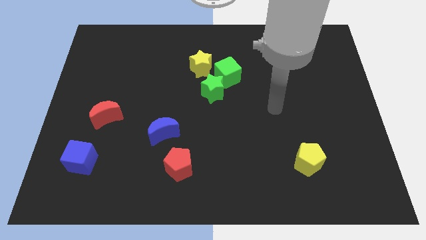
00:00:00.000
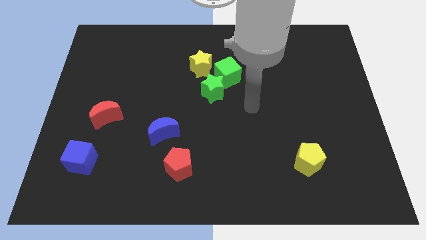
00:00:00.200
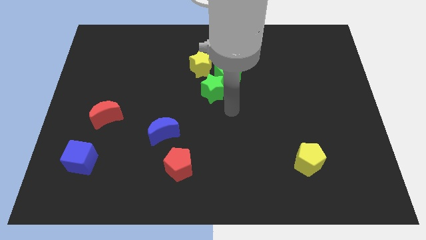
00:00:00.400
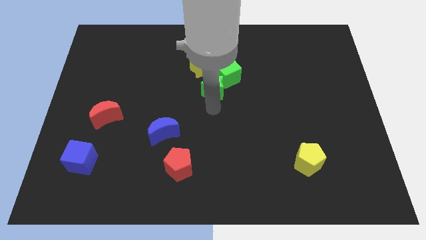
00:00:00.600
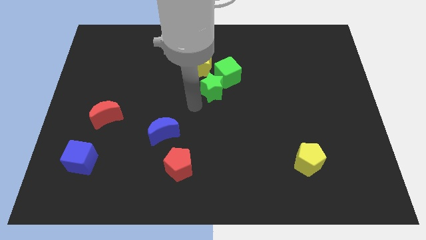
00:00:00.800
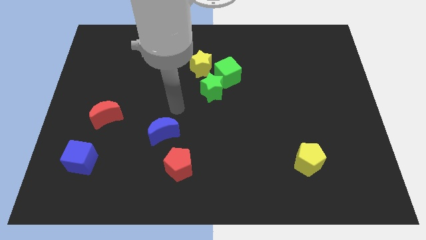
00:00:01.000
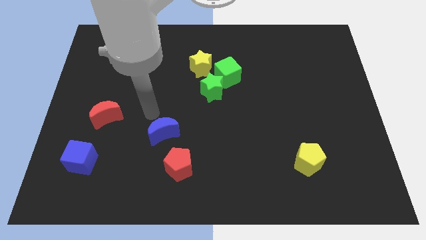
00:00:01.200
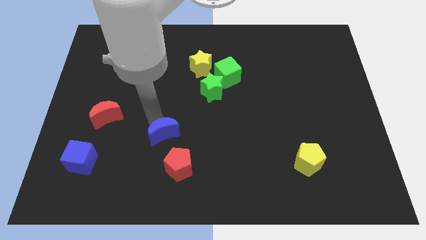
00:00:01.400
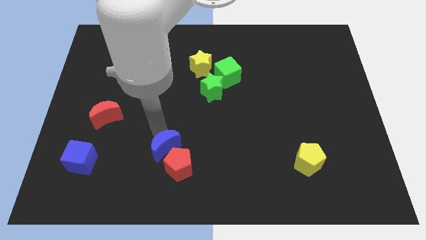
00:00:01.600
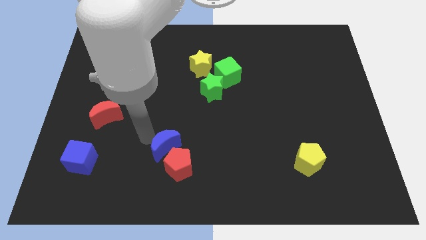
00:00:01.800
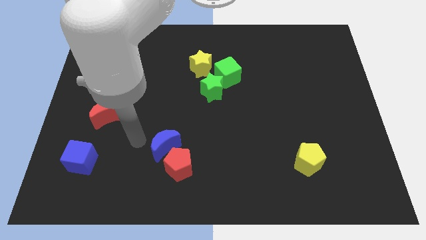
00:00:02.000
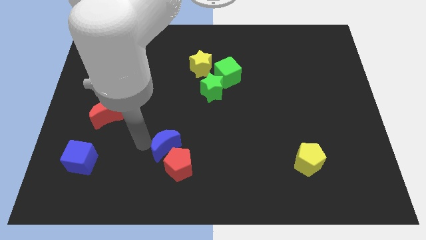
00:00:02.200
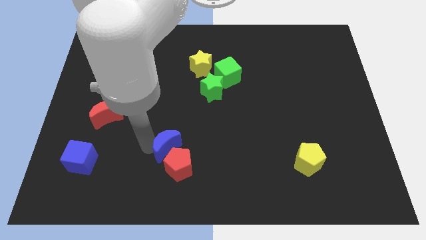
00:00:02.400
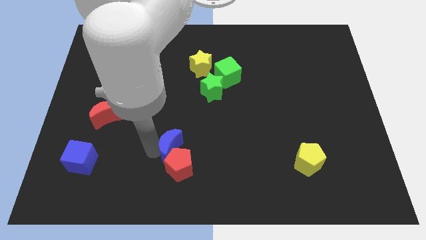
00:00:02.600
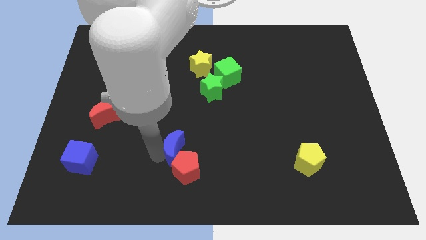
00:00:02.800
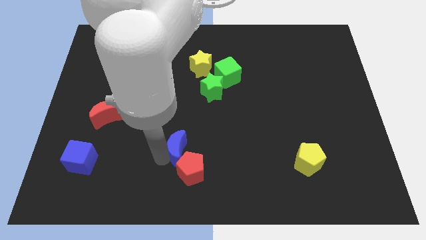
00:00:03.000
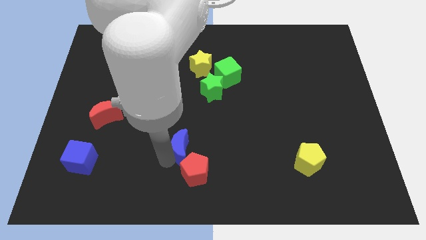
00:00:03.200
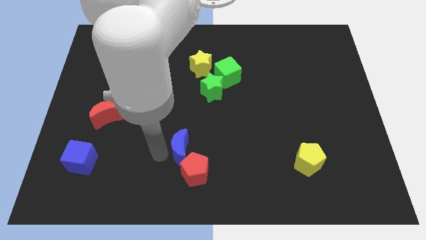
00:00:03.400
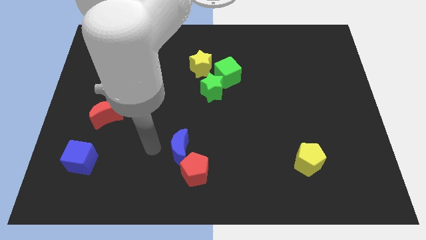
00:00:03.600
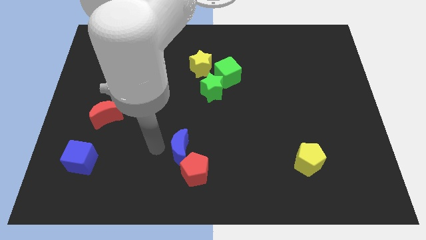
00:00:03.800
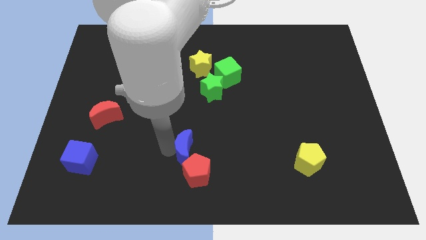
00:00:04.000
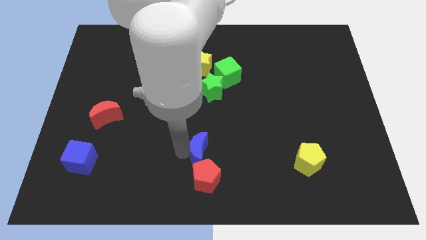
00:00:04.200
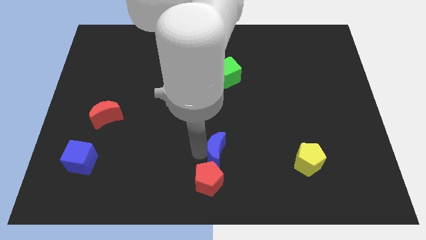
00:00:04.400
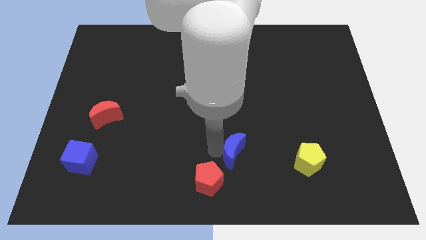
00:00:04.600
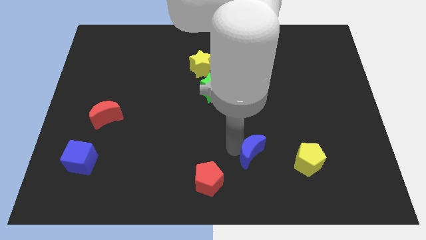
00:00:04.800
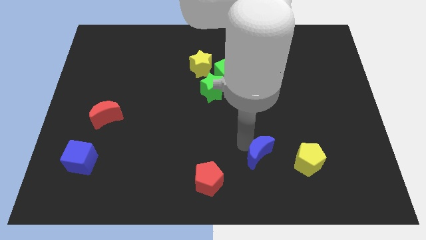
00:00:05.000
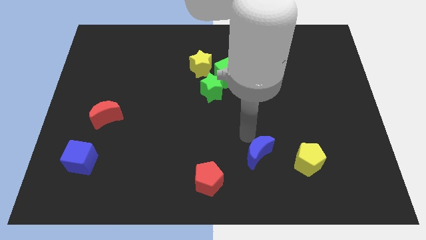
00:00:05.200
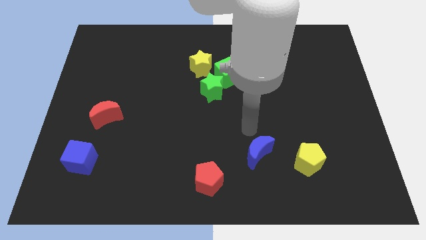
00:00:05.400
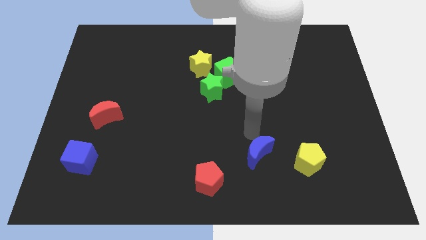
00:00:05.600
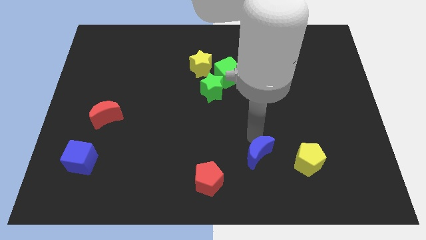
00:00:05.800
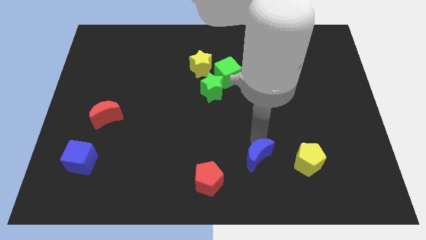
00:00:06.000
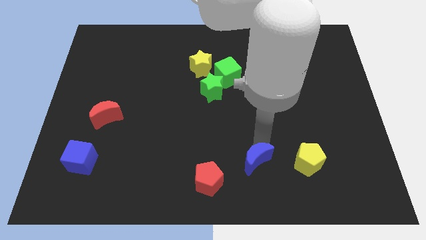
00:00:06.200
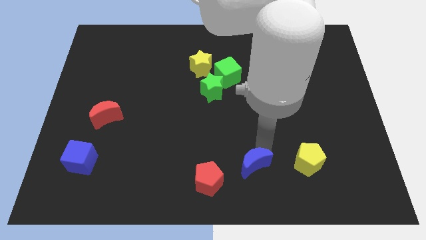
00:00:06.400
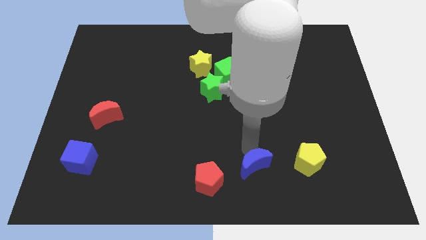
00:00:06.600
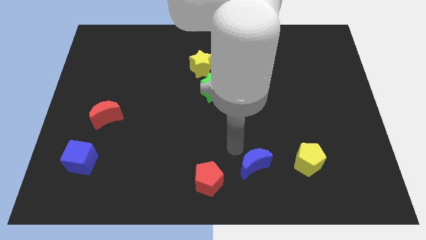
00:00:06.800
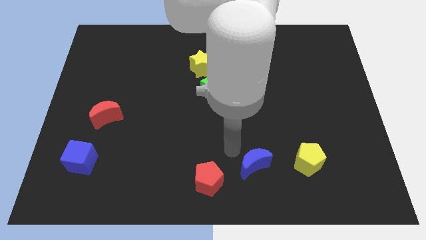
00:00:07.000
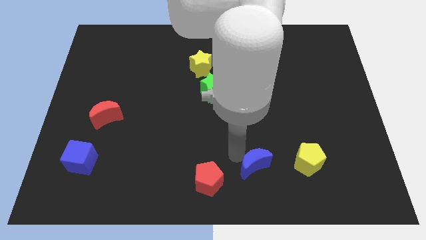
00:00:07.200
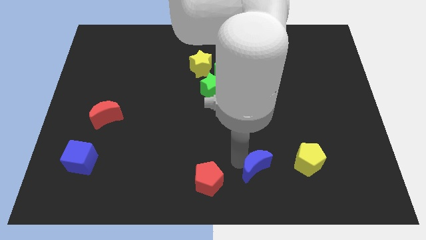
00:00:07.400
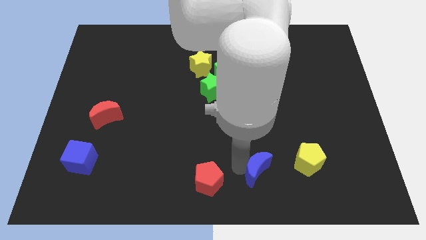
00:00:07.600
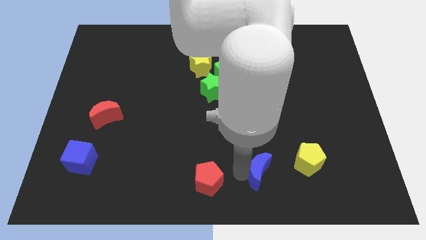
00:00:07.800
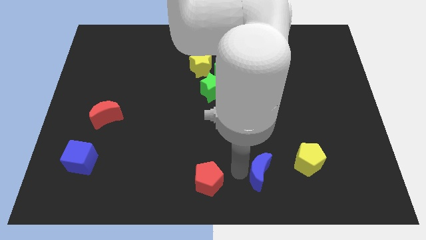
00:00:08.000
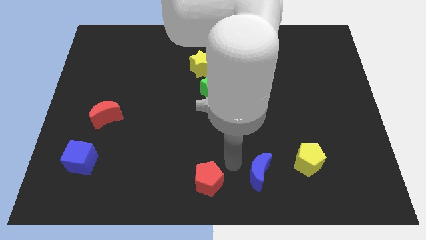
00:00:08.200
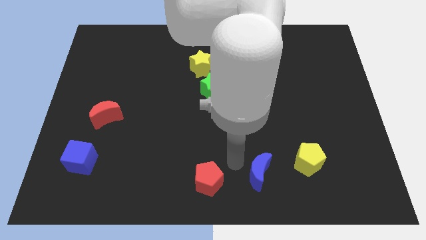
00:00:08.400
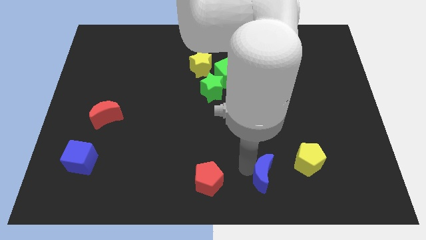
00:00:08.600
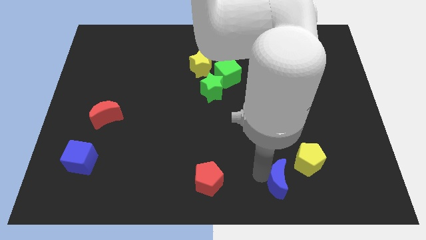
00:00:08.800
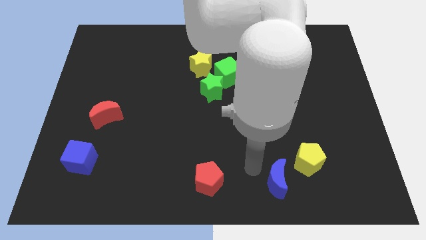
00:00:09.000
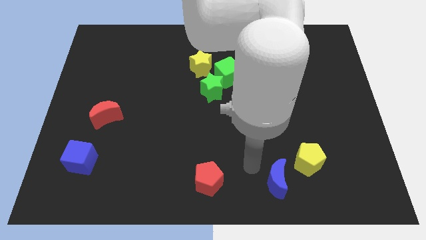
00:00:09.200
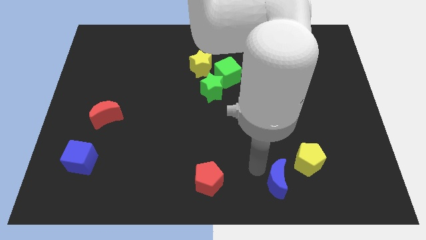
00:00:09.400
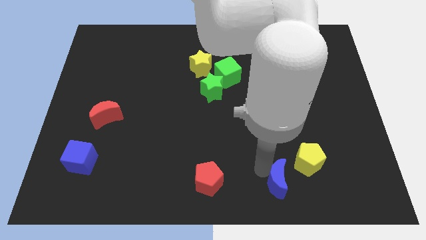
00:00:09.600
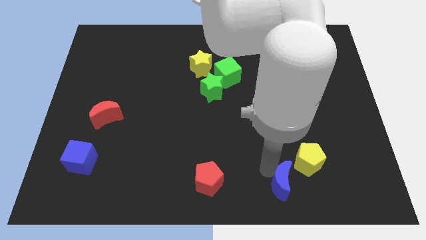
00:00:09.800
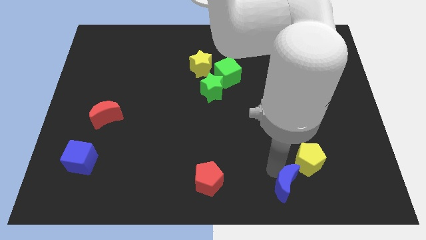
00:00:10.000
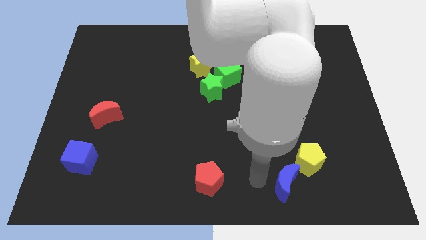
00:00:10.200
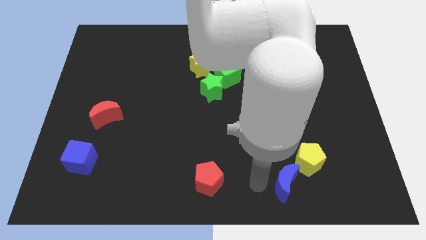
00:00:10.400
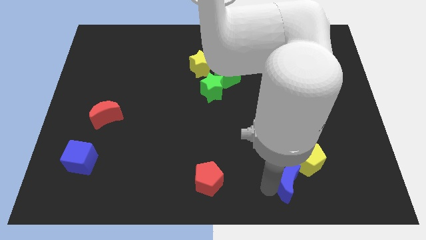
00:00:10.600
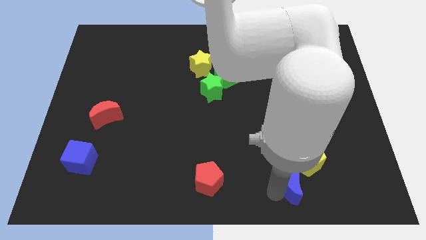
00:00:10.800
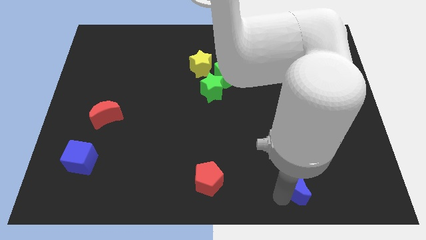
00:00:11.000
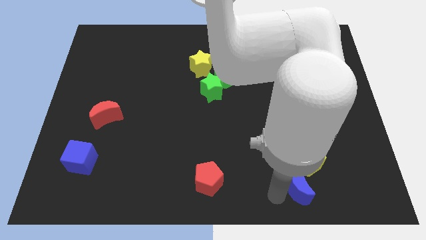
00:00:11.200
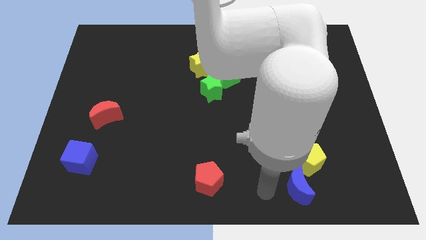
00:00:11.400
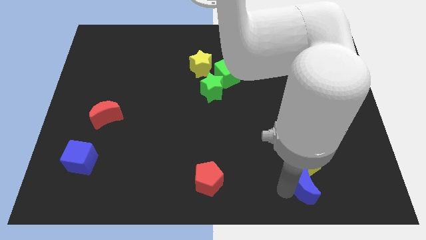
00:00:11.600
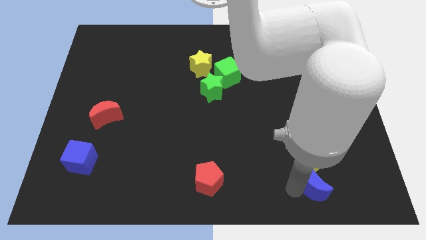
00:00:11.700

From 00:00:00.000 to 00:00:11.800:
push the blue moon diagonally down and to the right of the yellow pentagon

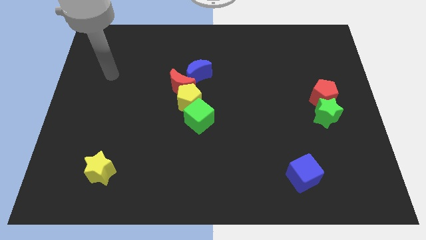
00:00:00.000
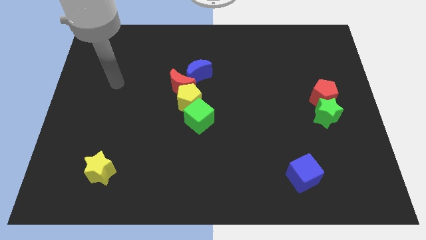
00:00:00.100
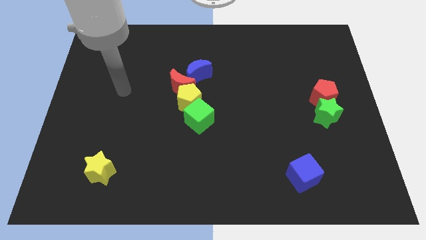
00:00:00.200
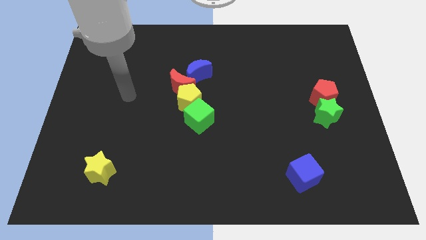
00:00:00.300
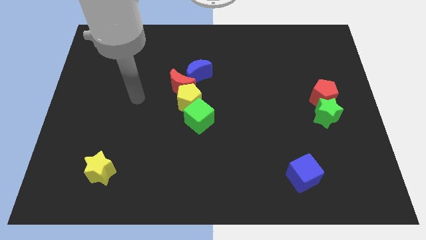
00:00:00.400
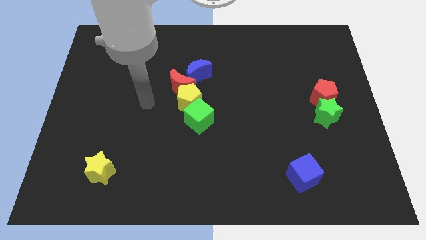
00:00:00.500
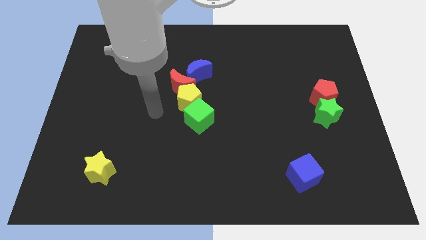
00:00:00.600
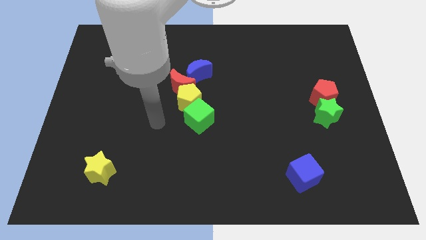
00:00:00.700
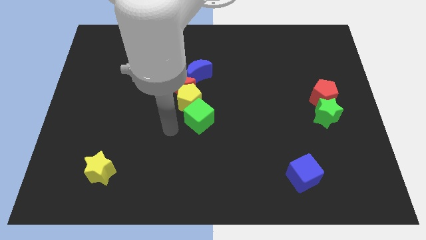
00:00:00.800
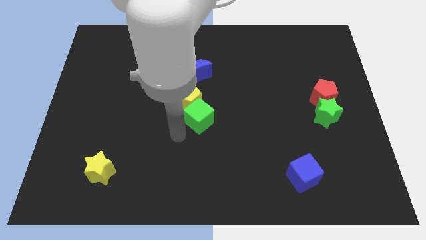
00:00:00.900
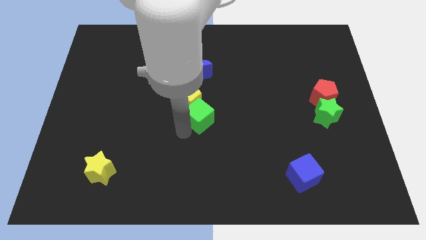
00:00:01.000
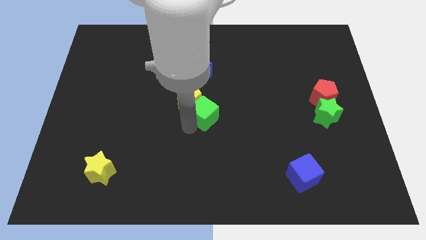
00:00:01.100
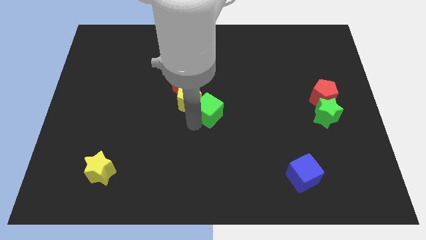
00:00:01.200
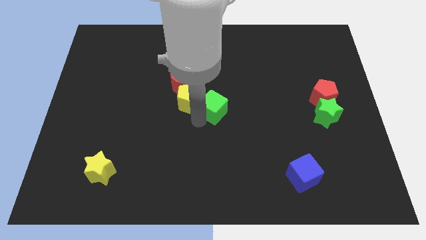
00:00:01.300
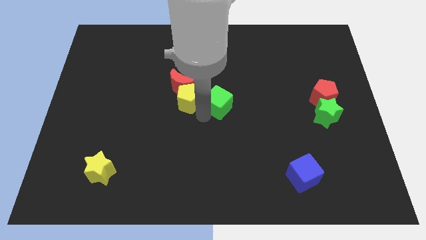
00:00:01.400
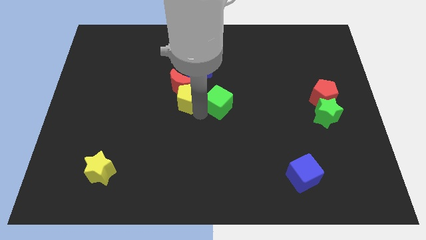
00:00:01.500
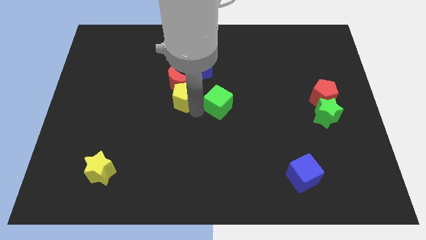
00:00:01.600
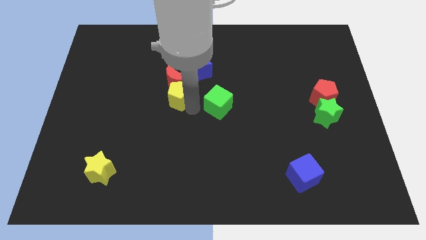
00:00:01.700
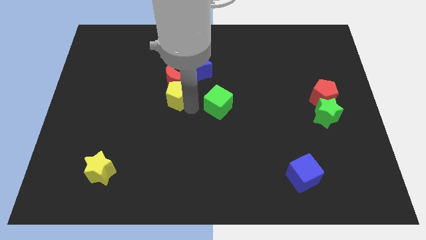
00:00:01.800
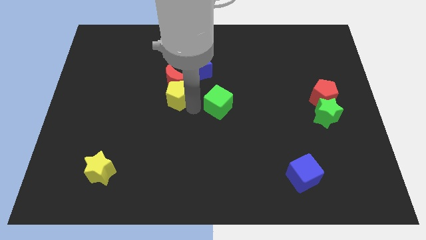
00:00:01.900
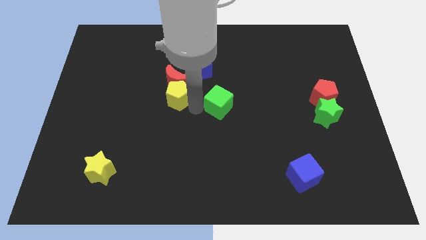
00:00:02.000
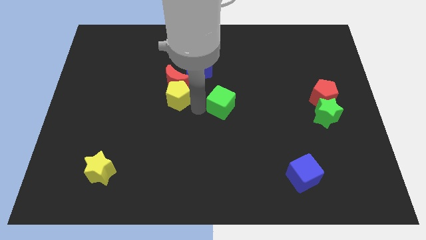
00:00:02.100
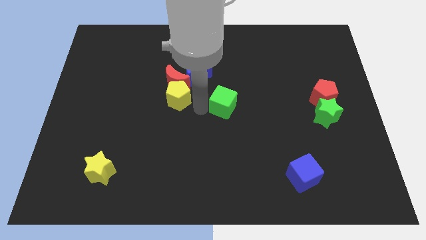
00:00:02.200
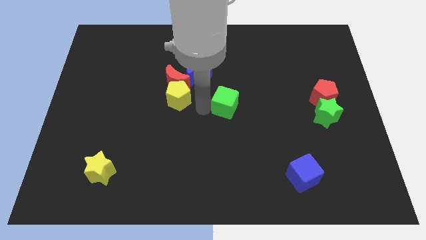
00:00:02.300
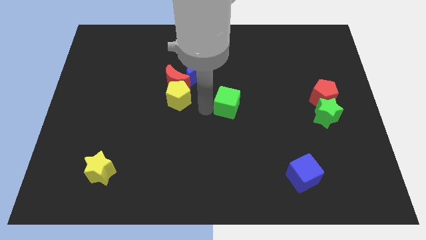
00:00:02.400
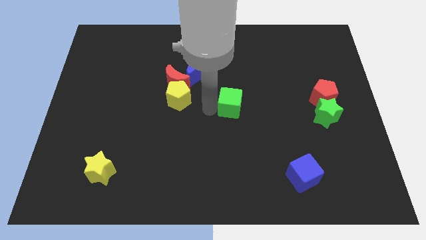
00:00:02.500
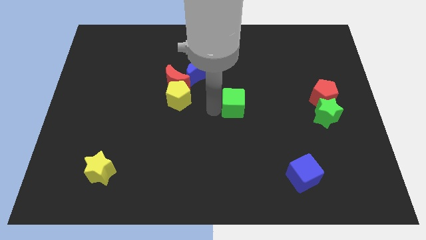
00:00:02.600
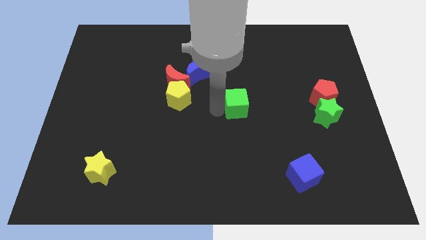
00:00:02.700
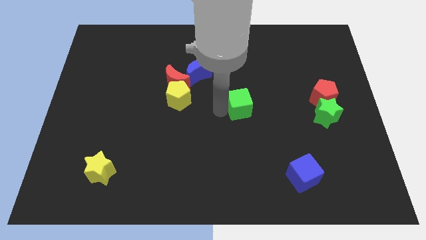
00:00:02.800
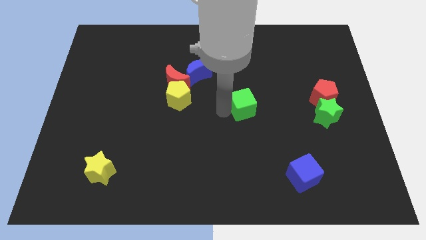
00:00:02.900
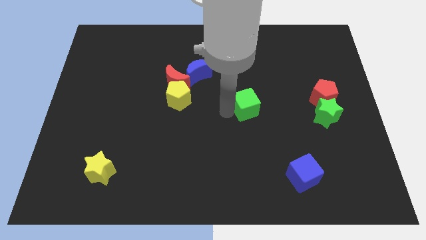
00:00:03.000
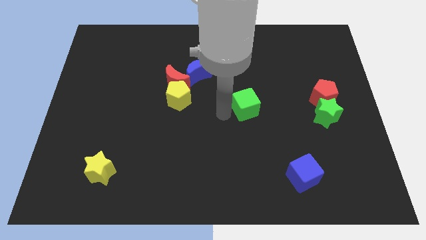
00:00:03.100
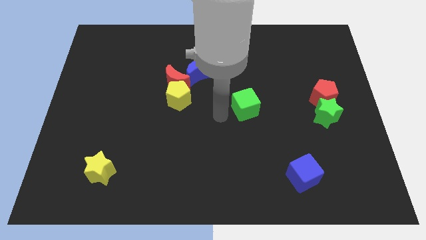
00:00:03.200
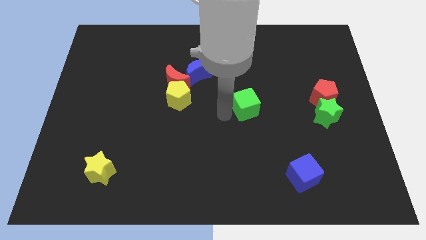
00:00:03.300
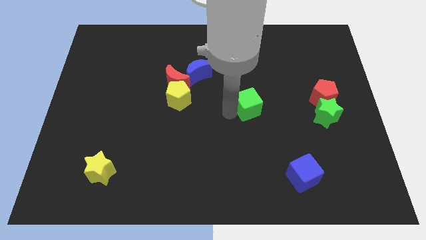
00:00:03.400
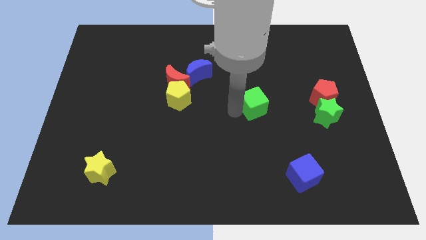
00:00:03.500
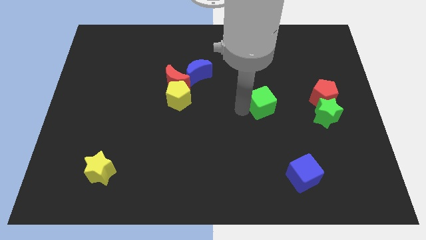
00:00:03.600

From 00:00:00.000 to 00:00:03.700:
put the green cube just left of the red pentagon
